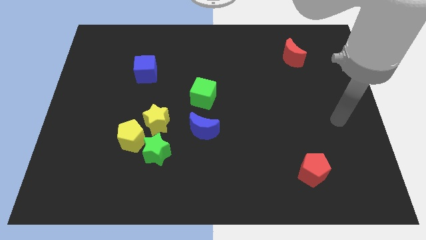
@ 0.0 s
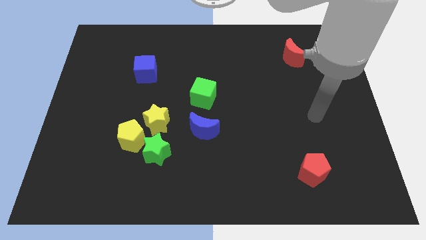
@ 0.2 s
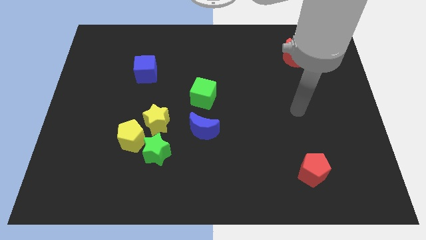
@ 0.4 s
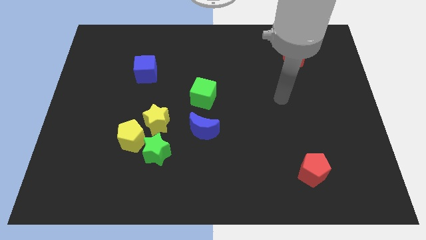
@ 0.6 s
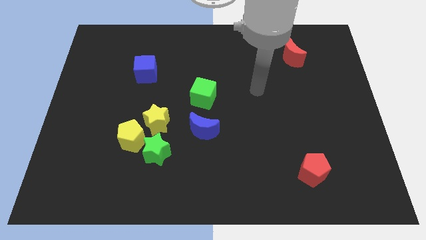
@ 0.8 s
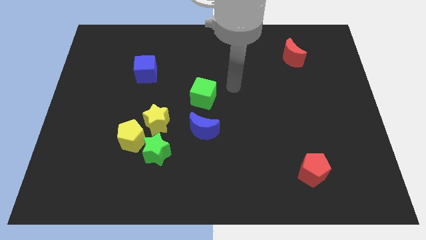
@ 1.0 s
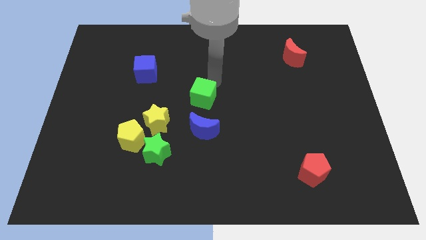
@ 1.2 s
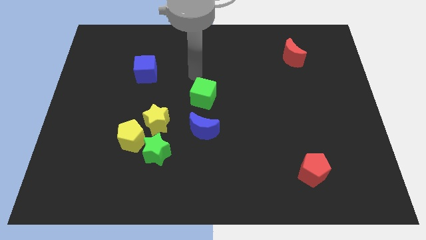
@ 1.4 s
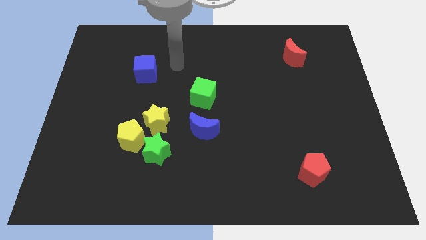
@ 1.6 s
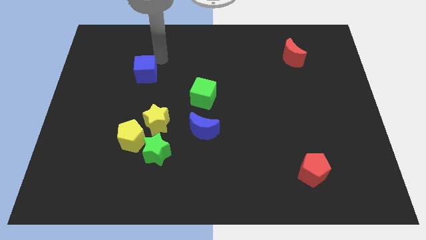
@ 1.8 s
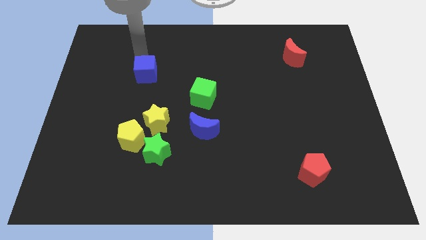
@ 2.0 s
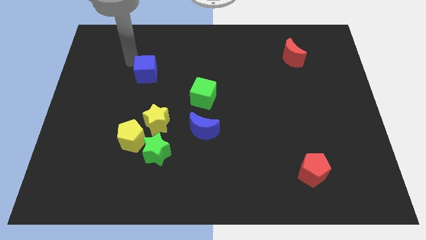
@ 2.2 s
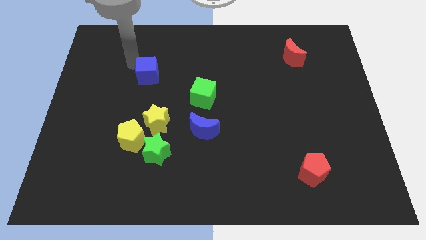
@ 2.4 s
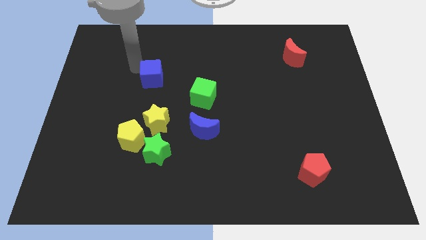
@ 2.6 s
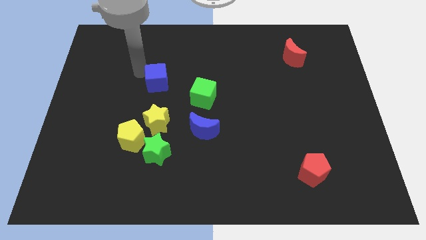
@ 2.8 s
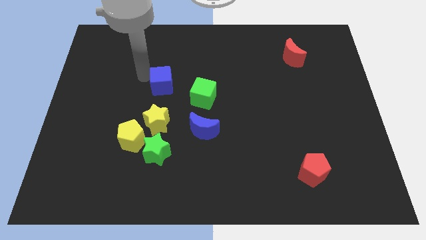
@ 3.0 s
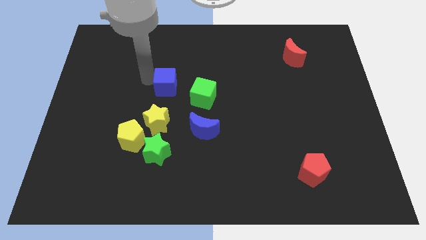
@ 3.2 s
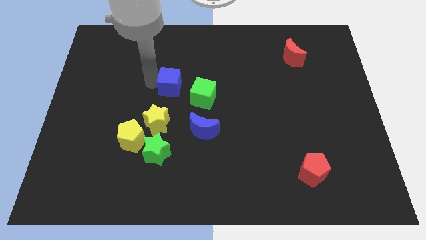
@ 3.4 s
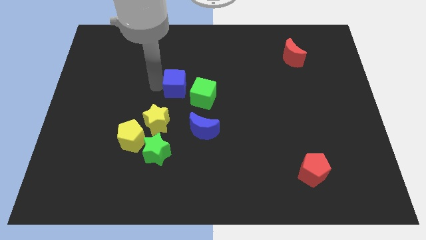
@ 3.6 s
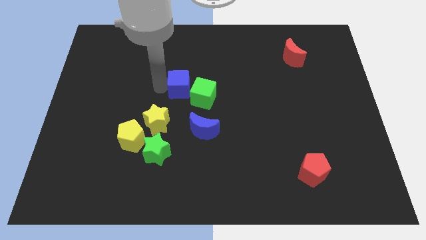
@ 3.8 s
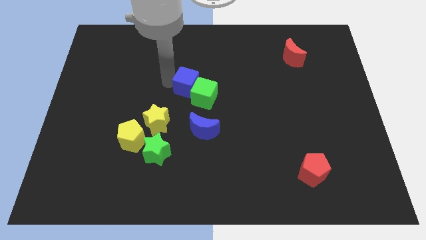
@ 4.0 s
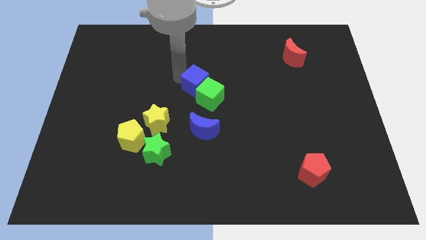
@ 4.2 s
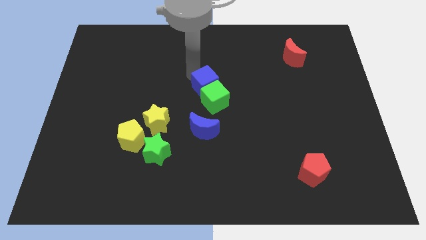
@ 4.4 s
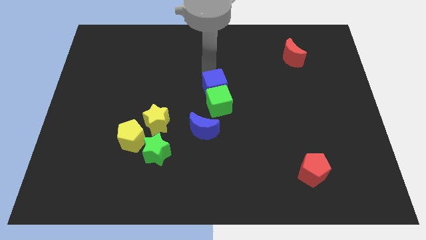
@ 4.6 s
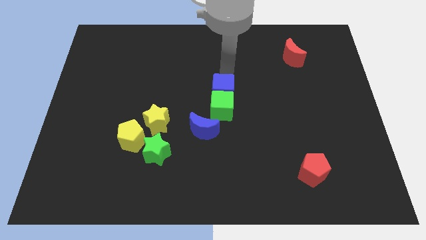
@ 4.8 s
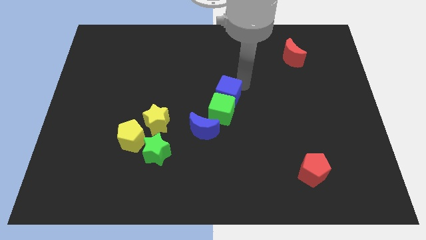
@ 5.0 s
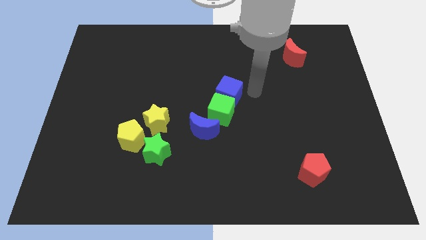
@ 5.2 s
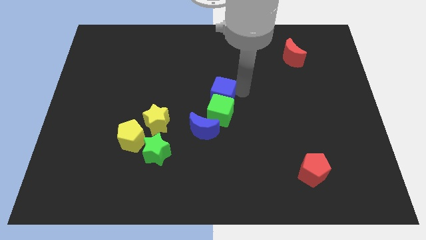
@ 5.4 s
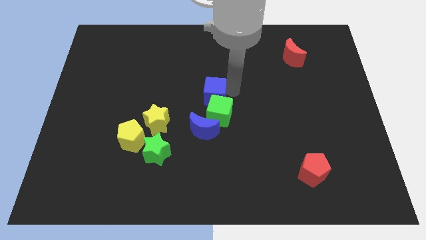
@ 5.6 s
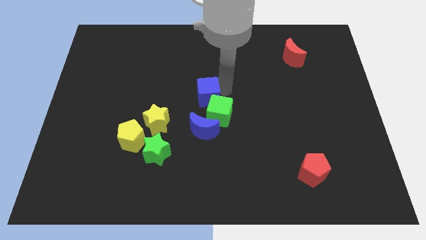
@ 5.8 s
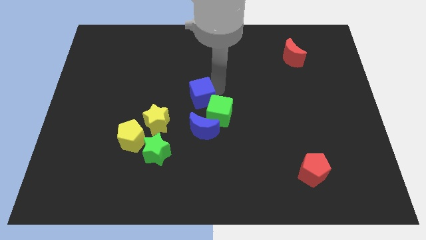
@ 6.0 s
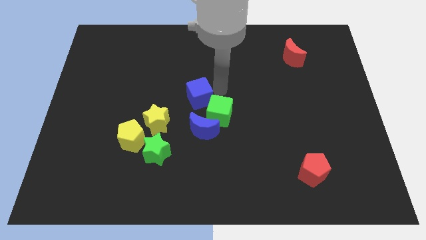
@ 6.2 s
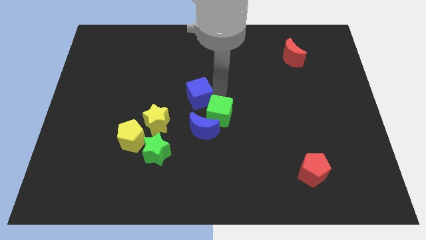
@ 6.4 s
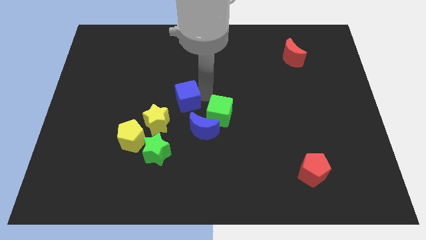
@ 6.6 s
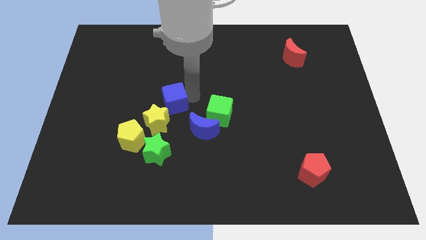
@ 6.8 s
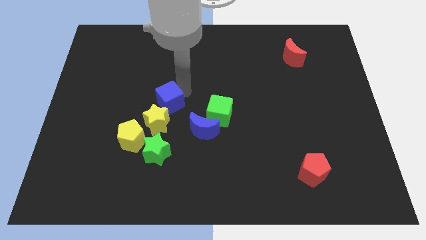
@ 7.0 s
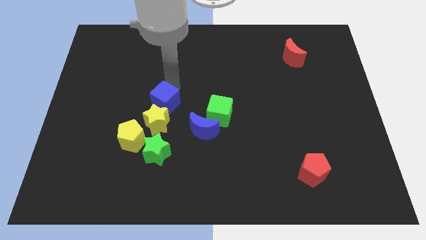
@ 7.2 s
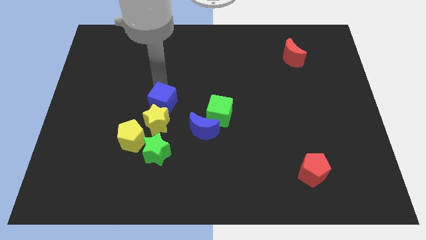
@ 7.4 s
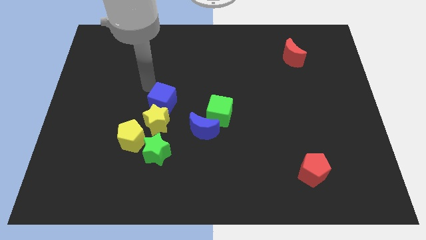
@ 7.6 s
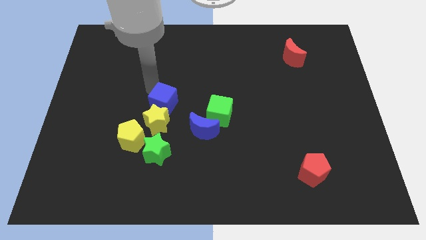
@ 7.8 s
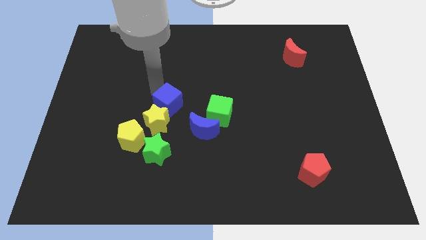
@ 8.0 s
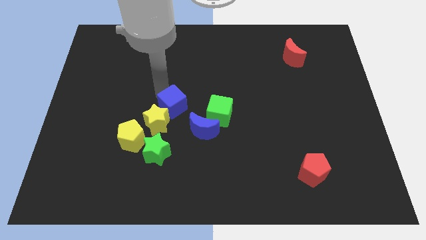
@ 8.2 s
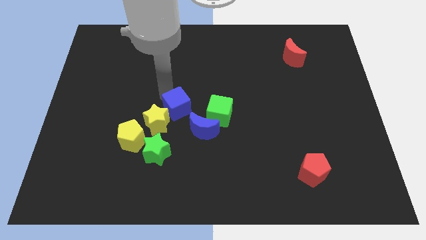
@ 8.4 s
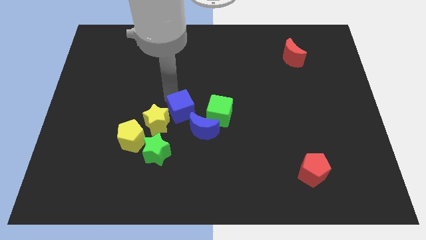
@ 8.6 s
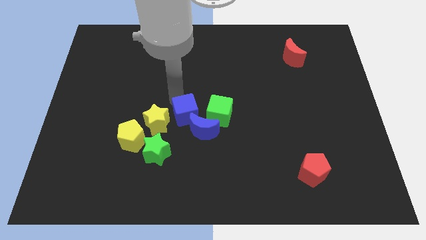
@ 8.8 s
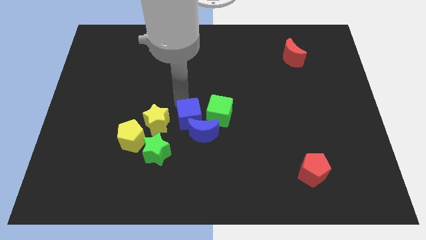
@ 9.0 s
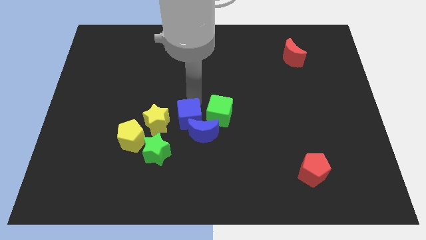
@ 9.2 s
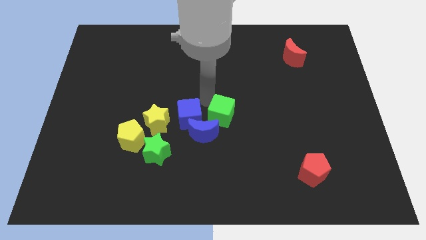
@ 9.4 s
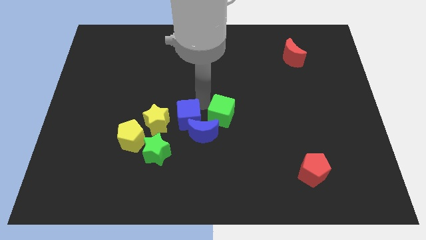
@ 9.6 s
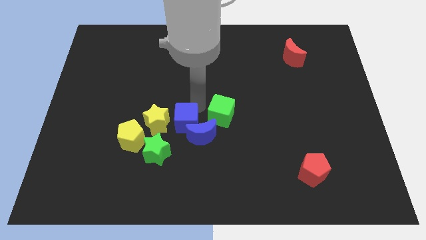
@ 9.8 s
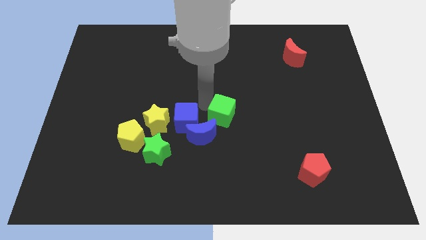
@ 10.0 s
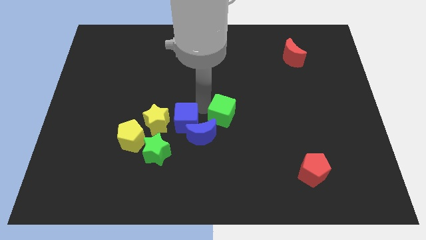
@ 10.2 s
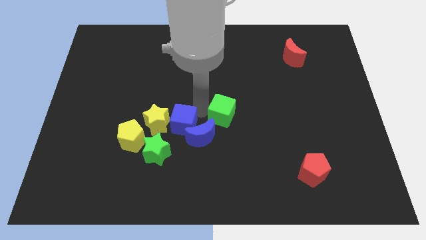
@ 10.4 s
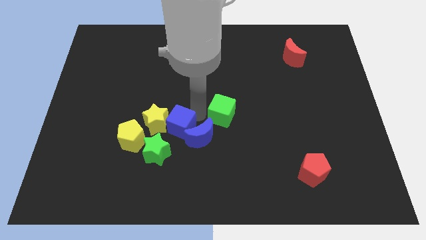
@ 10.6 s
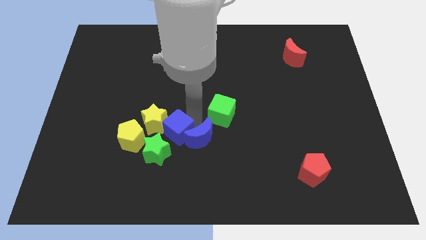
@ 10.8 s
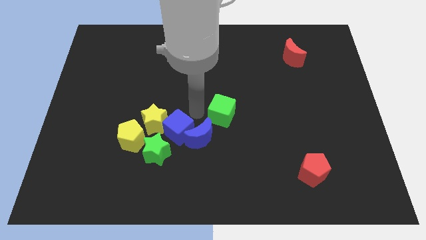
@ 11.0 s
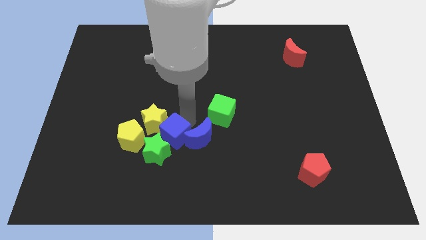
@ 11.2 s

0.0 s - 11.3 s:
slide the blue cube towards the green star

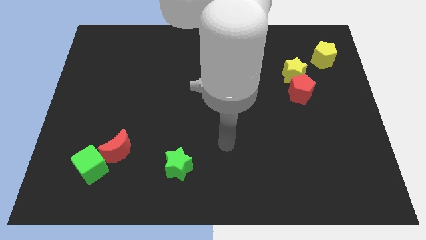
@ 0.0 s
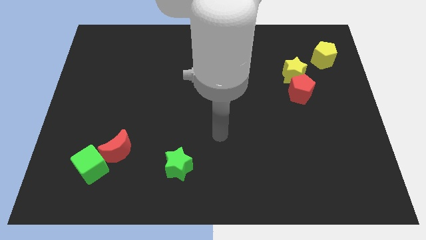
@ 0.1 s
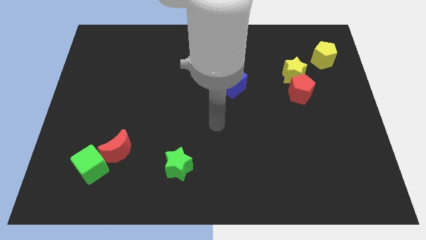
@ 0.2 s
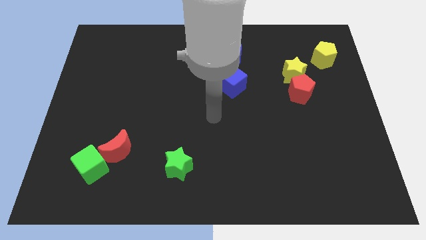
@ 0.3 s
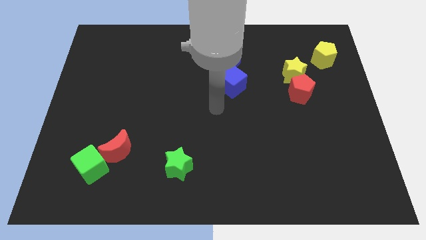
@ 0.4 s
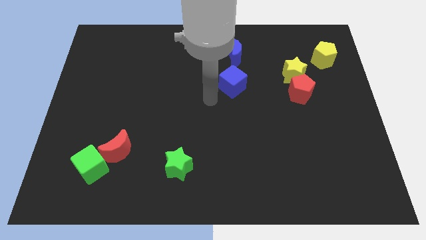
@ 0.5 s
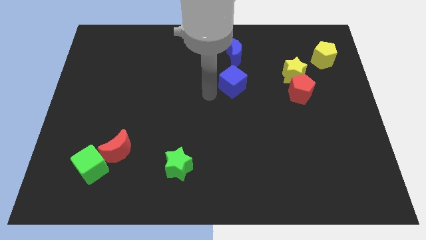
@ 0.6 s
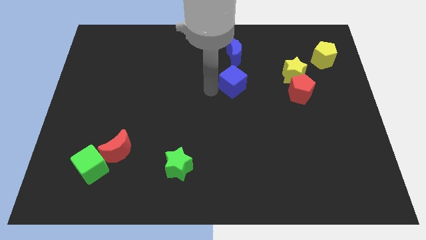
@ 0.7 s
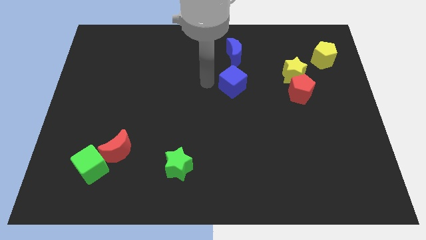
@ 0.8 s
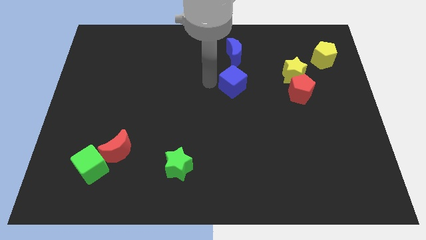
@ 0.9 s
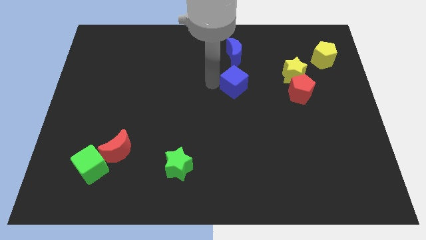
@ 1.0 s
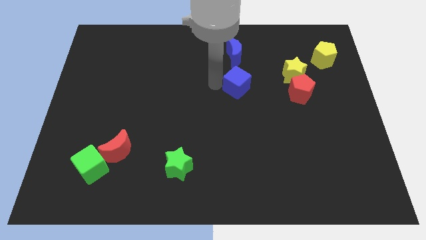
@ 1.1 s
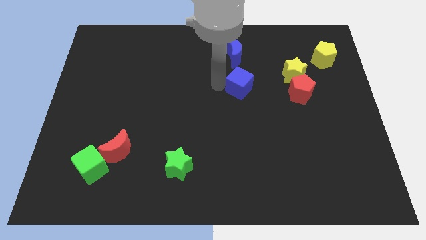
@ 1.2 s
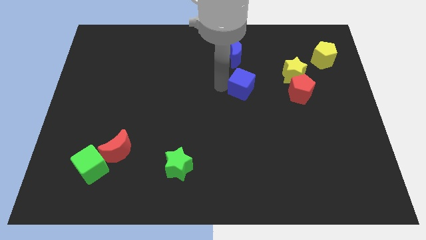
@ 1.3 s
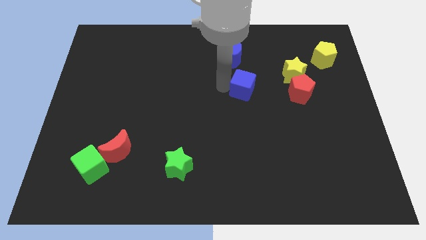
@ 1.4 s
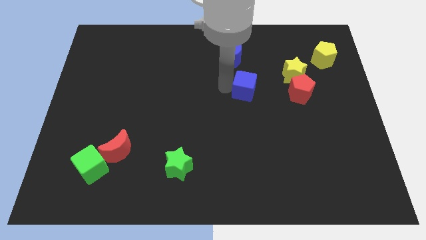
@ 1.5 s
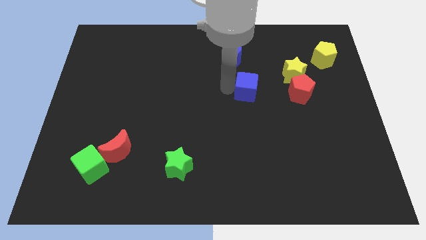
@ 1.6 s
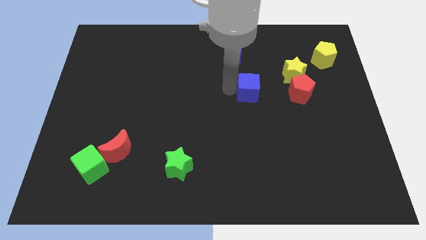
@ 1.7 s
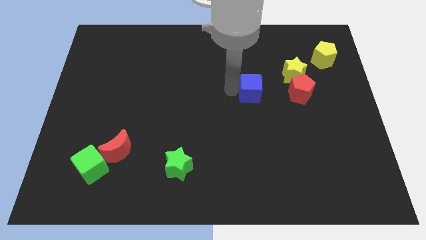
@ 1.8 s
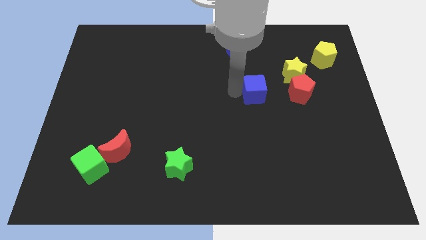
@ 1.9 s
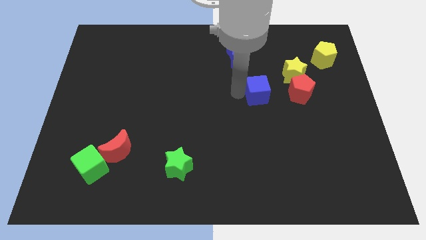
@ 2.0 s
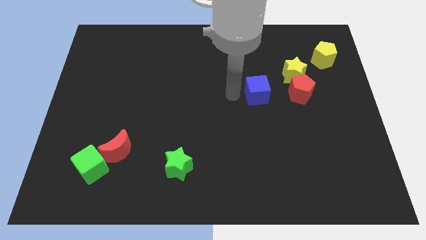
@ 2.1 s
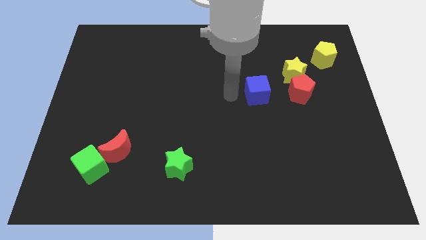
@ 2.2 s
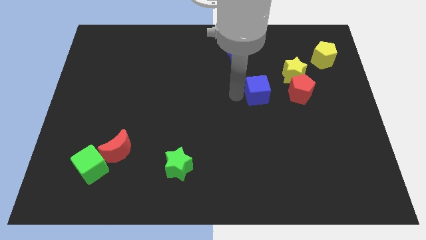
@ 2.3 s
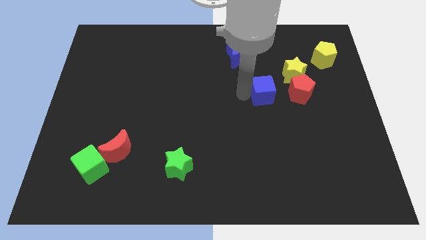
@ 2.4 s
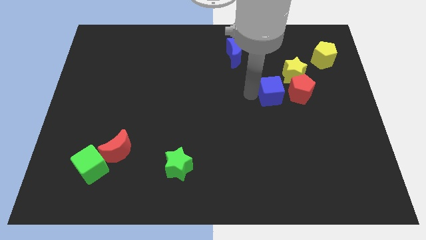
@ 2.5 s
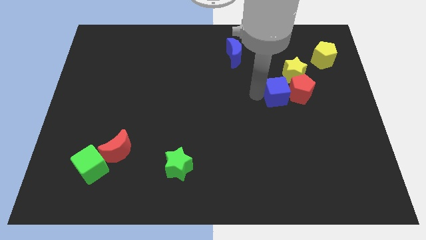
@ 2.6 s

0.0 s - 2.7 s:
put the blue cube towards the red pentagon
